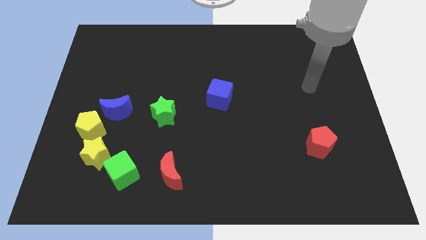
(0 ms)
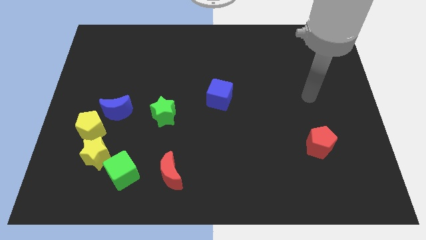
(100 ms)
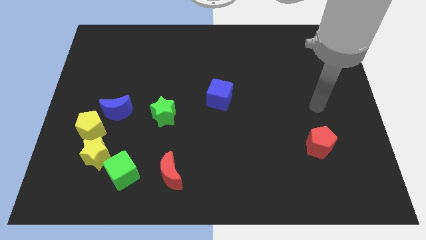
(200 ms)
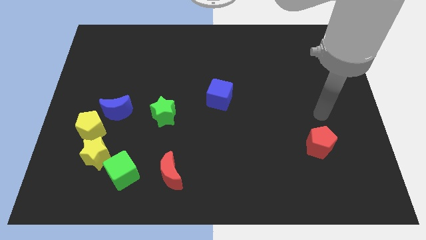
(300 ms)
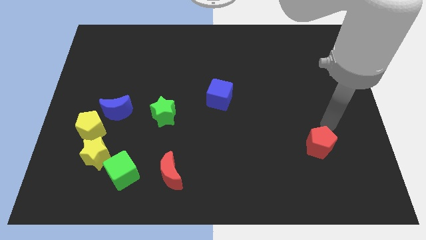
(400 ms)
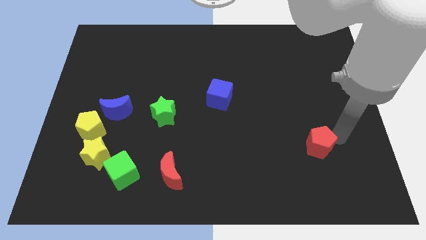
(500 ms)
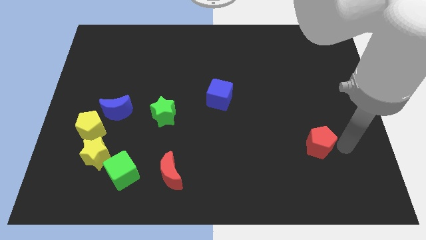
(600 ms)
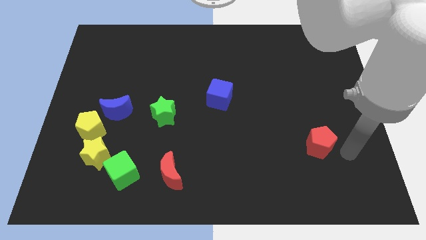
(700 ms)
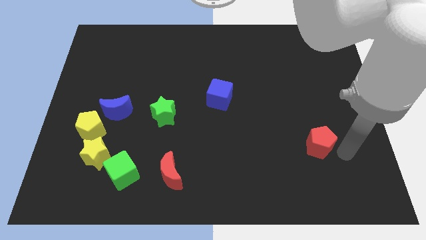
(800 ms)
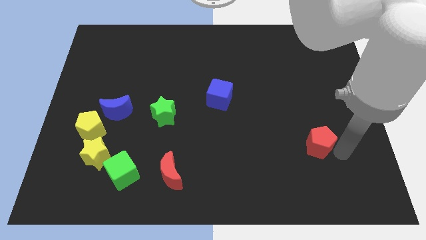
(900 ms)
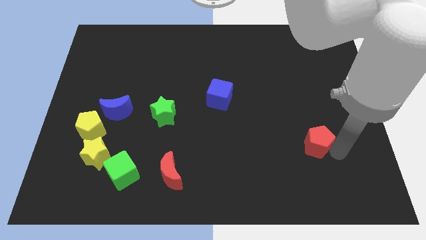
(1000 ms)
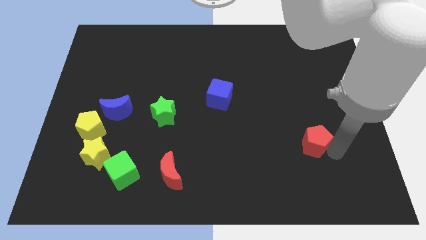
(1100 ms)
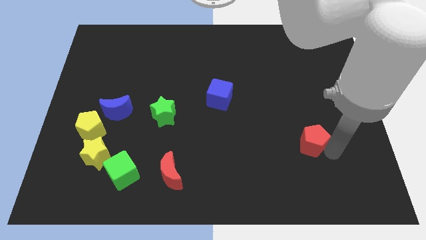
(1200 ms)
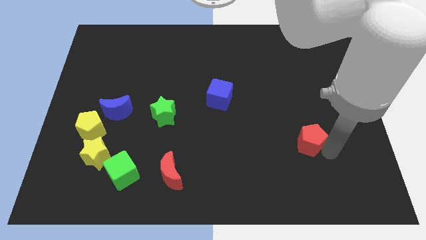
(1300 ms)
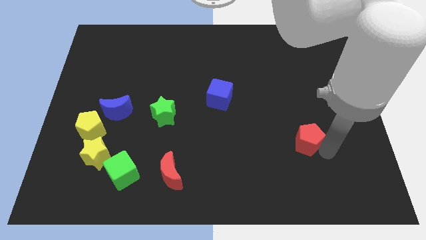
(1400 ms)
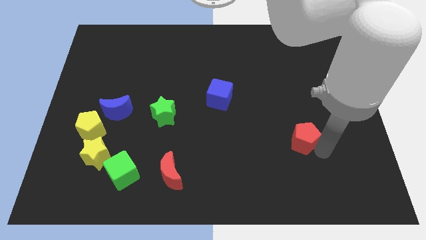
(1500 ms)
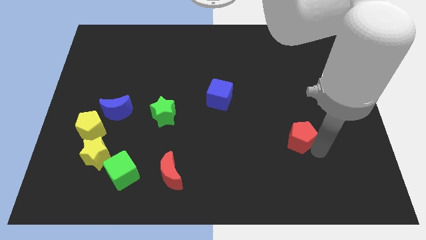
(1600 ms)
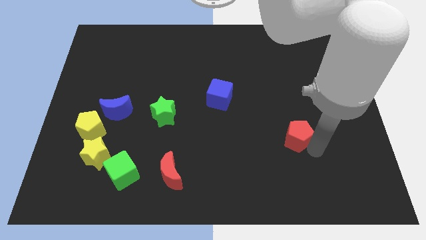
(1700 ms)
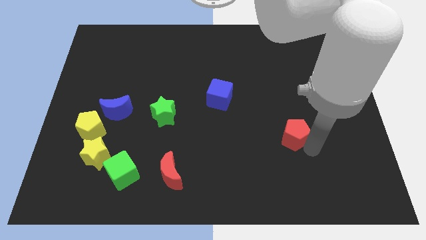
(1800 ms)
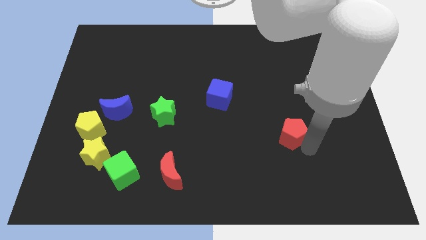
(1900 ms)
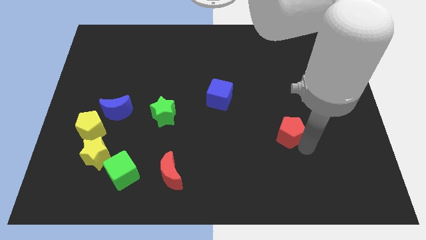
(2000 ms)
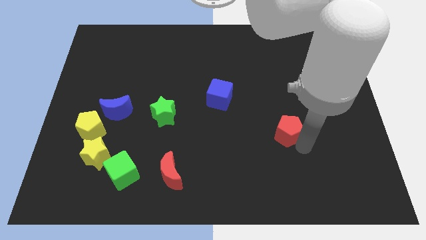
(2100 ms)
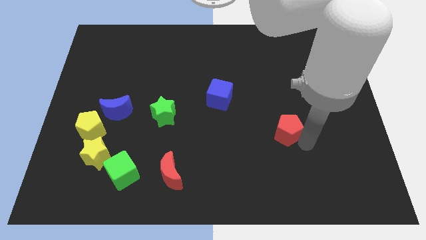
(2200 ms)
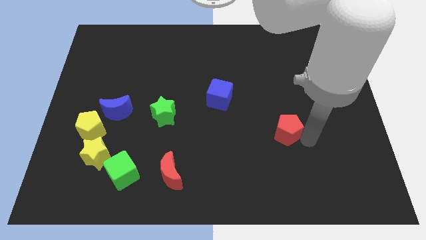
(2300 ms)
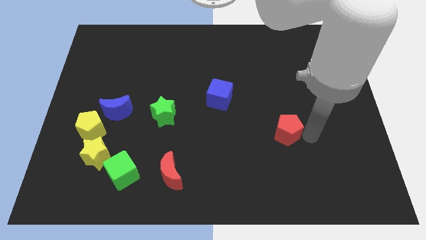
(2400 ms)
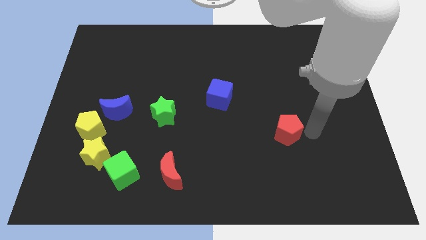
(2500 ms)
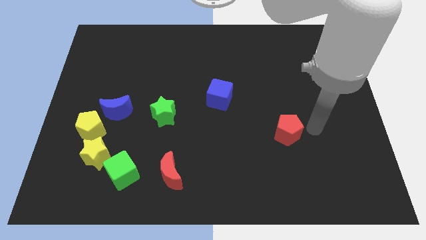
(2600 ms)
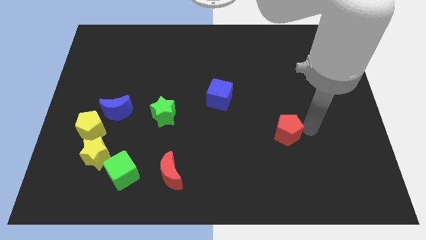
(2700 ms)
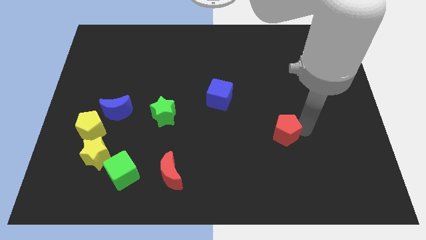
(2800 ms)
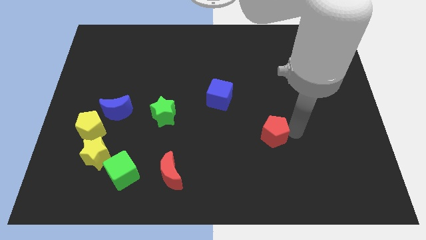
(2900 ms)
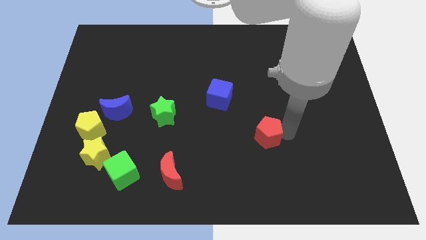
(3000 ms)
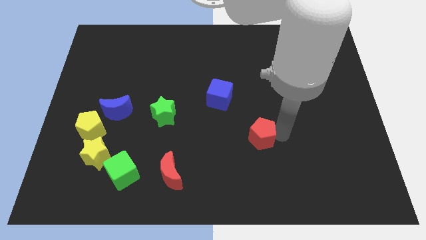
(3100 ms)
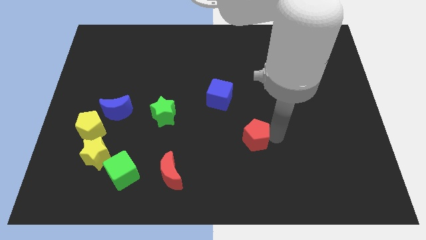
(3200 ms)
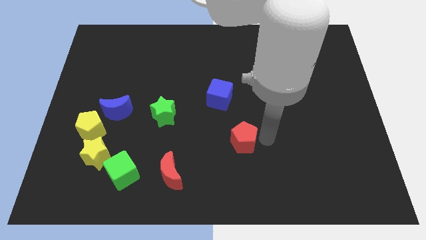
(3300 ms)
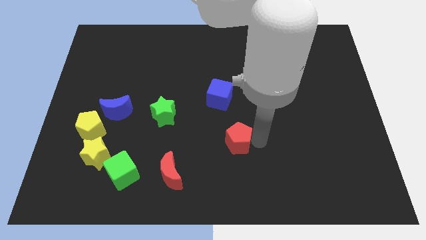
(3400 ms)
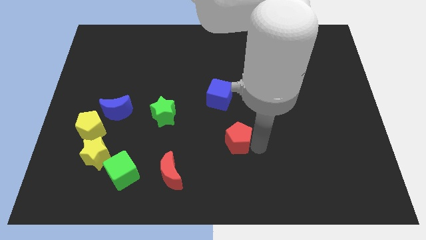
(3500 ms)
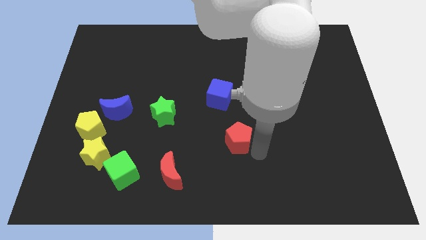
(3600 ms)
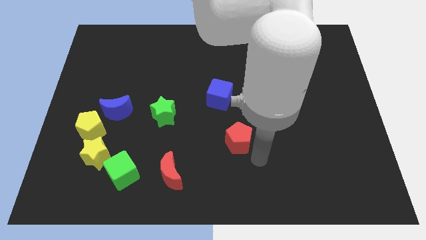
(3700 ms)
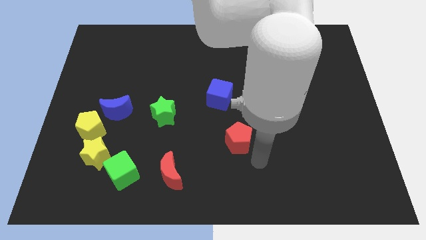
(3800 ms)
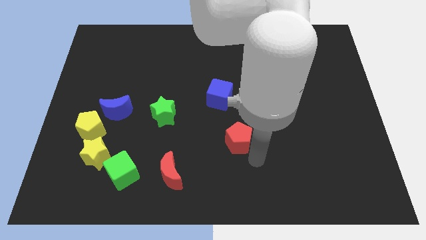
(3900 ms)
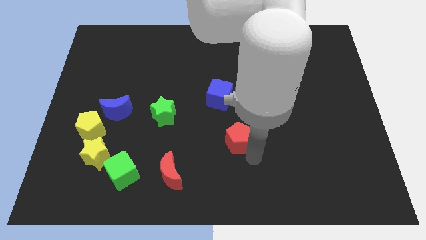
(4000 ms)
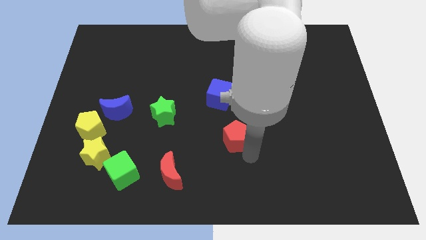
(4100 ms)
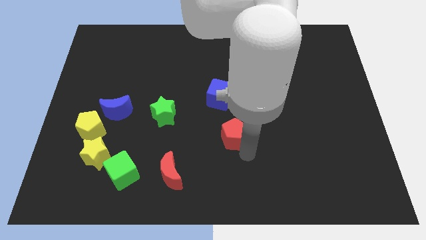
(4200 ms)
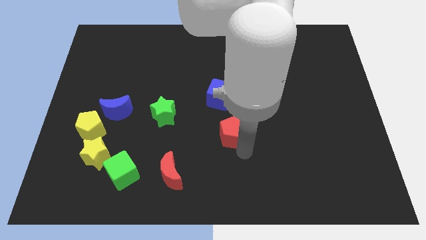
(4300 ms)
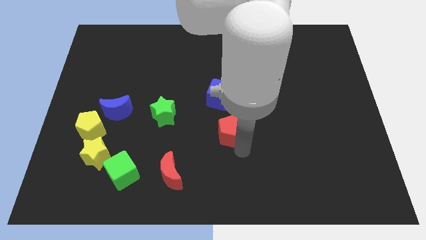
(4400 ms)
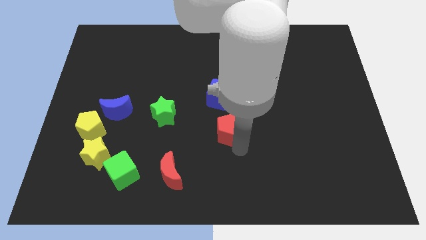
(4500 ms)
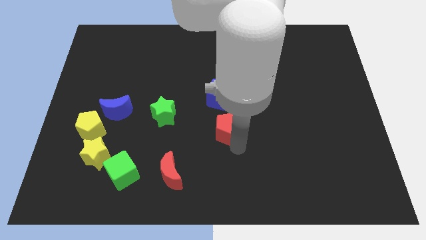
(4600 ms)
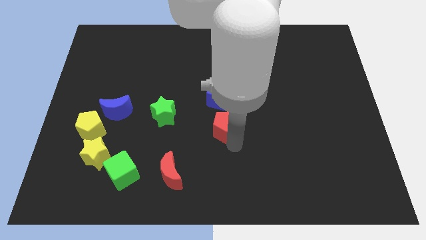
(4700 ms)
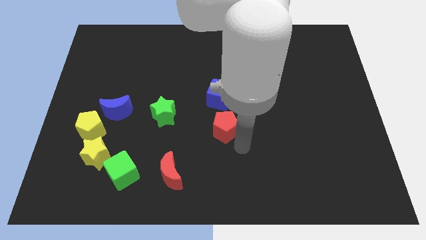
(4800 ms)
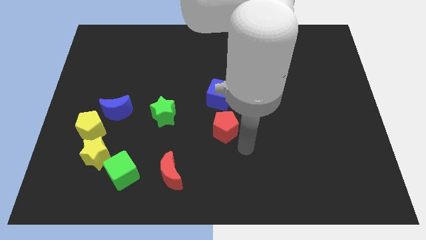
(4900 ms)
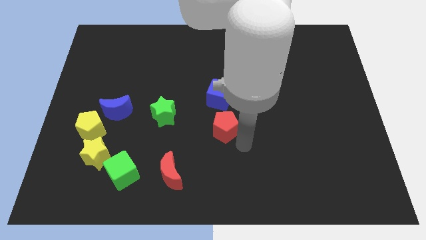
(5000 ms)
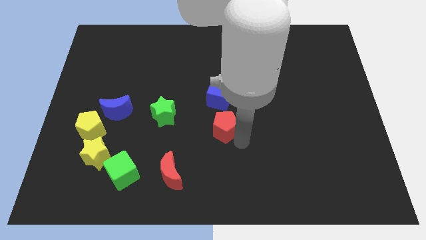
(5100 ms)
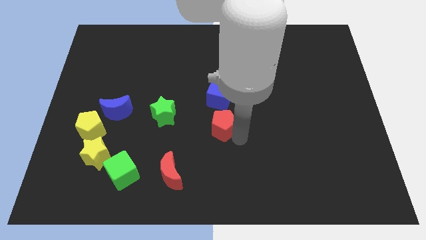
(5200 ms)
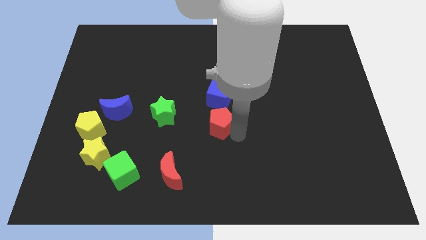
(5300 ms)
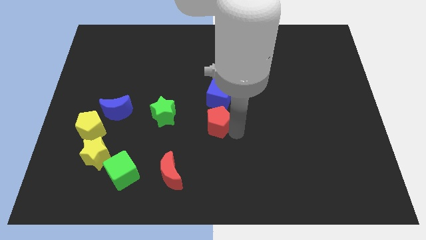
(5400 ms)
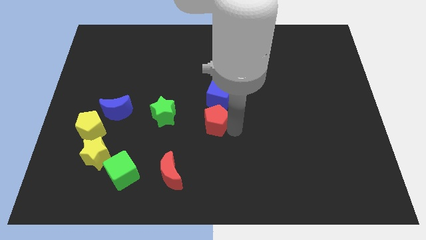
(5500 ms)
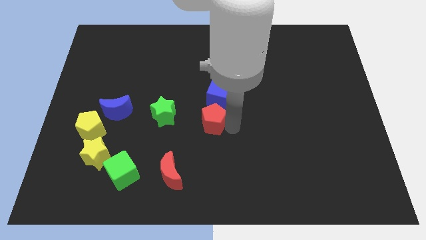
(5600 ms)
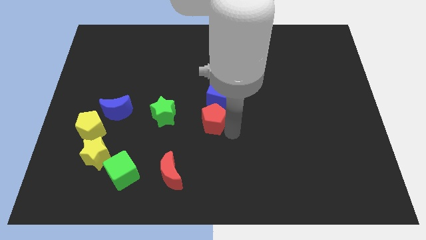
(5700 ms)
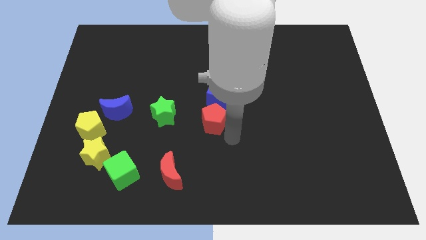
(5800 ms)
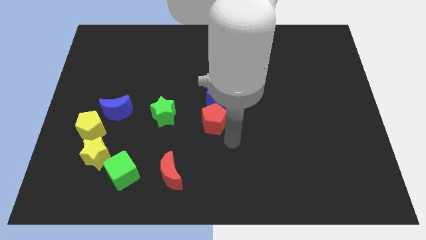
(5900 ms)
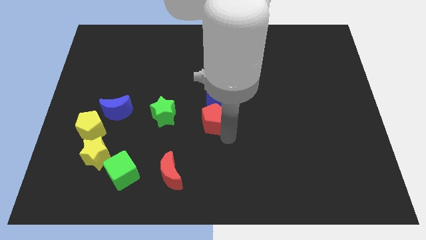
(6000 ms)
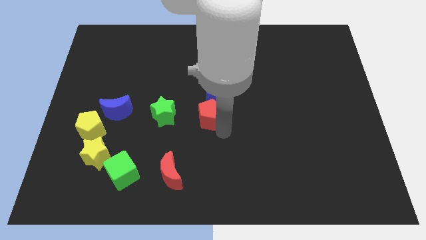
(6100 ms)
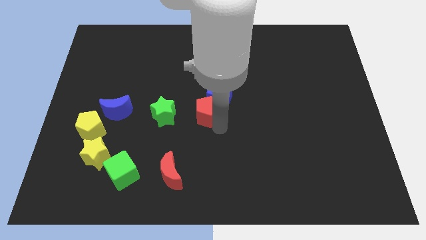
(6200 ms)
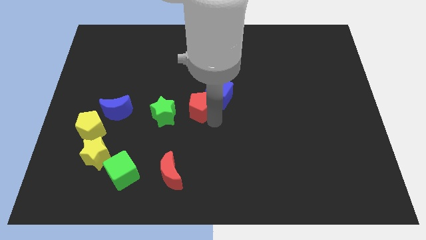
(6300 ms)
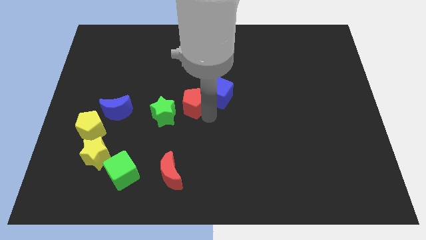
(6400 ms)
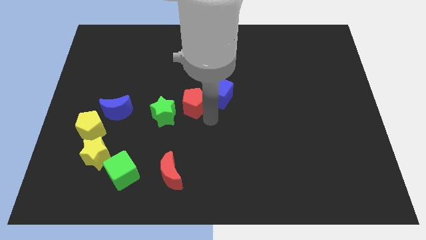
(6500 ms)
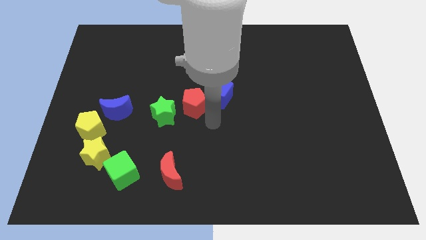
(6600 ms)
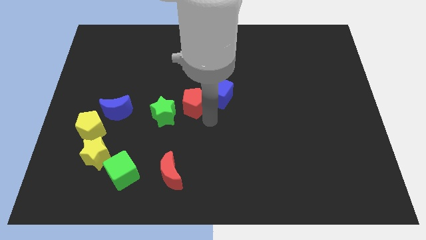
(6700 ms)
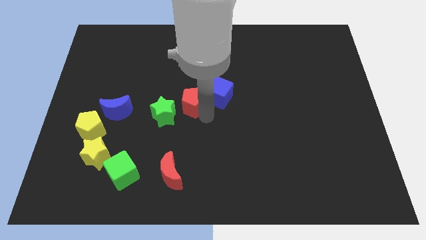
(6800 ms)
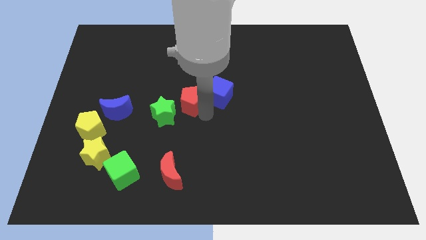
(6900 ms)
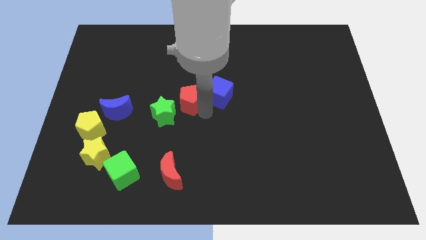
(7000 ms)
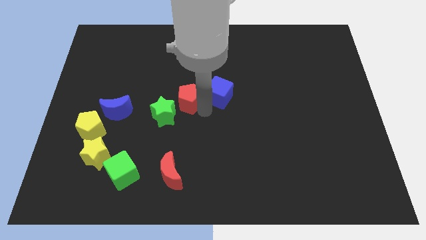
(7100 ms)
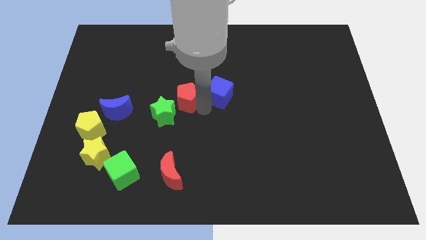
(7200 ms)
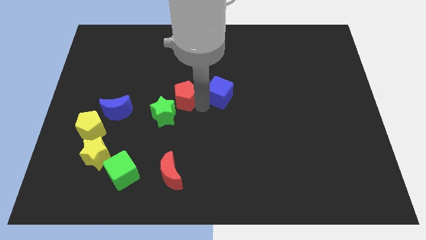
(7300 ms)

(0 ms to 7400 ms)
push the red pentagon to the top side of the green star

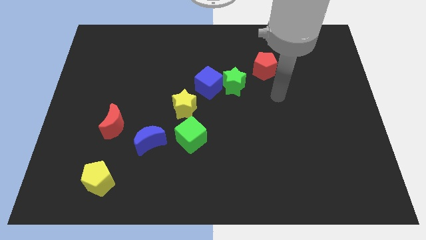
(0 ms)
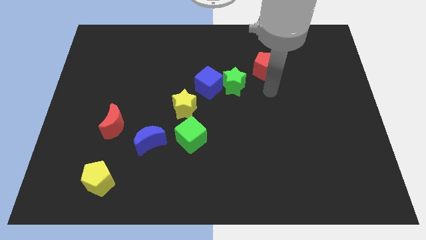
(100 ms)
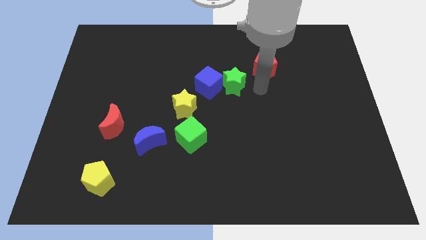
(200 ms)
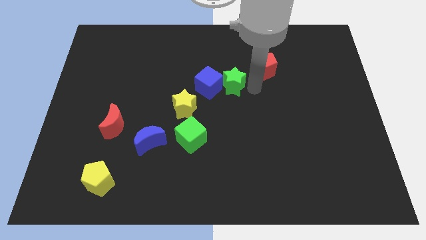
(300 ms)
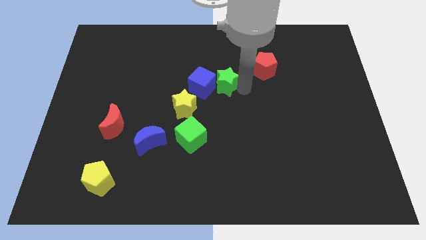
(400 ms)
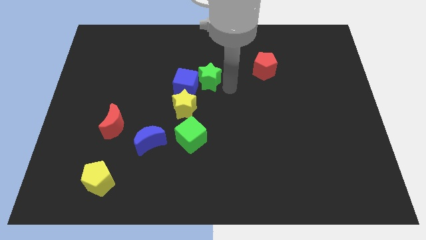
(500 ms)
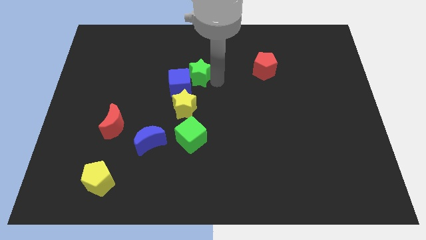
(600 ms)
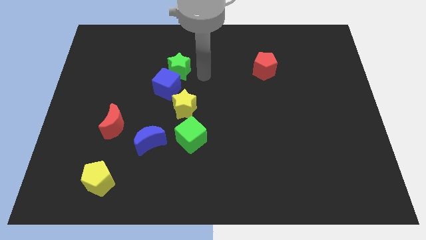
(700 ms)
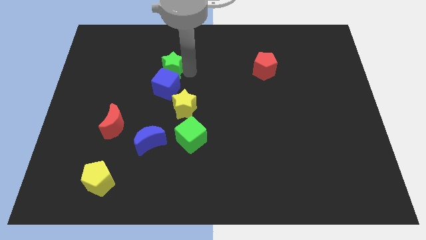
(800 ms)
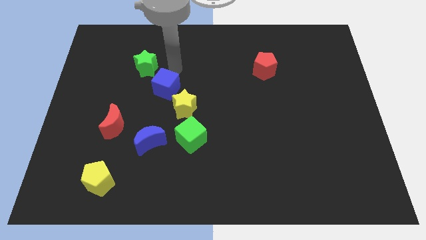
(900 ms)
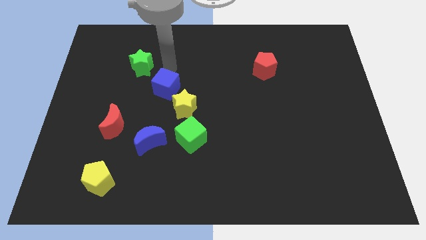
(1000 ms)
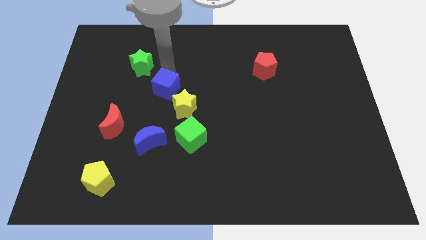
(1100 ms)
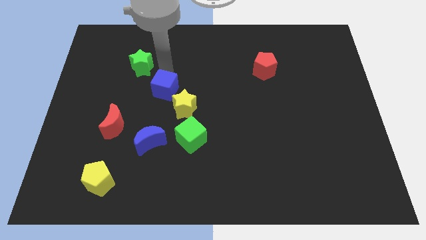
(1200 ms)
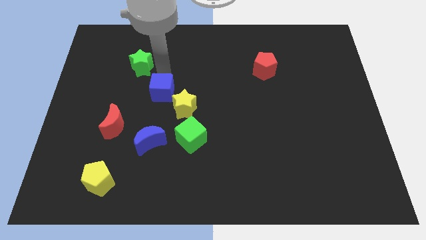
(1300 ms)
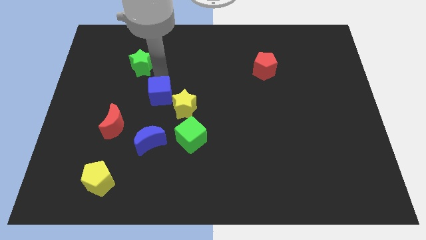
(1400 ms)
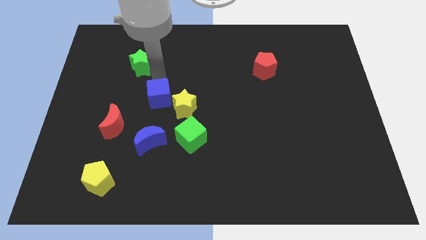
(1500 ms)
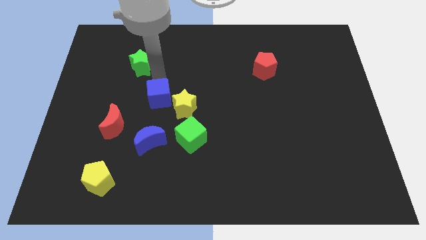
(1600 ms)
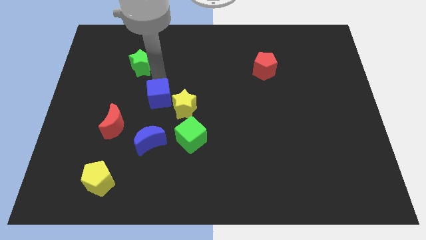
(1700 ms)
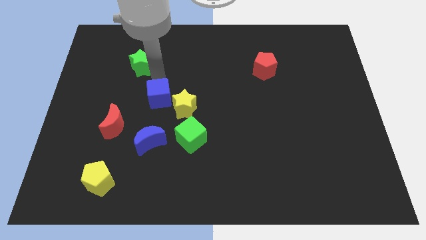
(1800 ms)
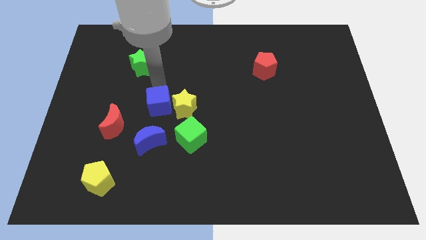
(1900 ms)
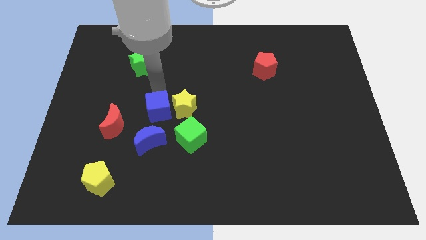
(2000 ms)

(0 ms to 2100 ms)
slide the blue cube to the bottom left side of the yellow star
